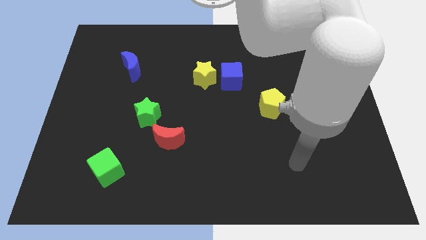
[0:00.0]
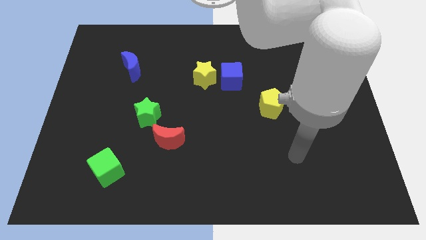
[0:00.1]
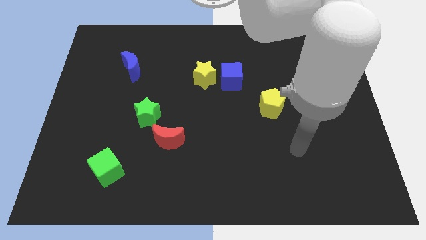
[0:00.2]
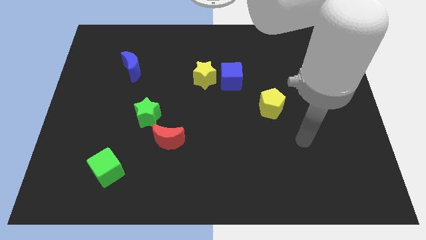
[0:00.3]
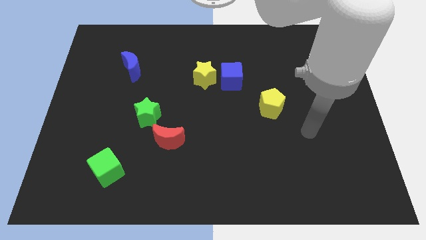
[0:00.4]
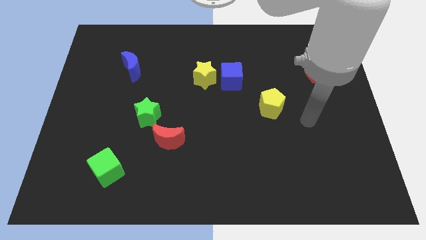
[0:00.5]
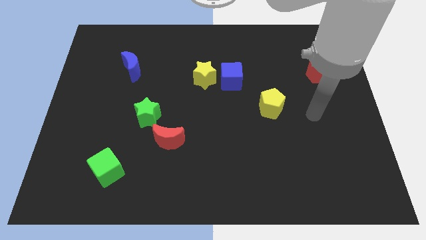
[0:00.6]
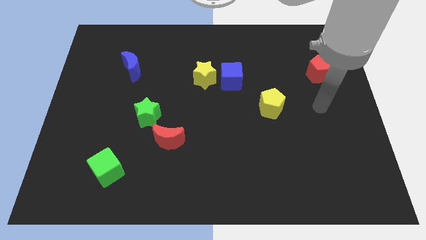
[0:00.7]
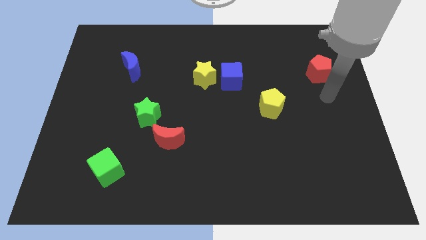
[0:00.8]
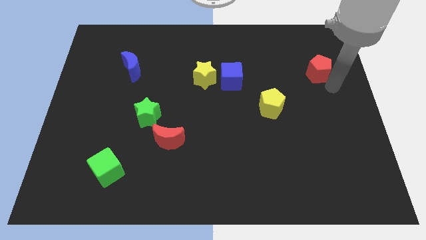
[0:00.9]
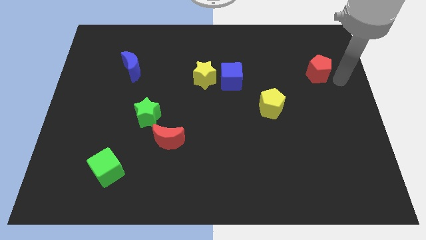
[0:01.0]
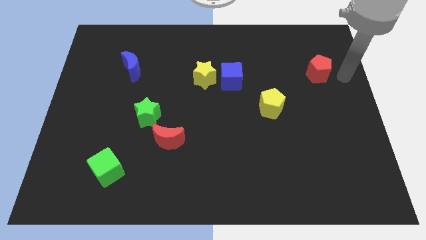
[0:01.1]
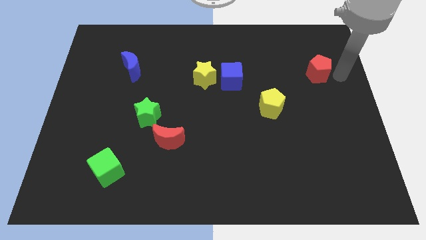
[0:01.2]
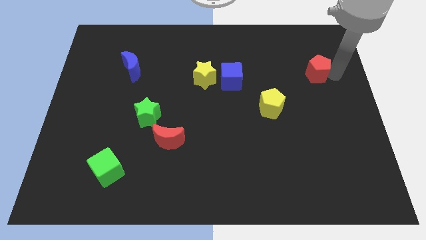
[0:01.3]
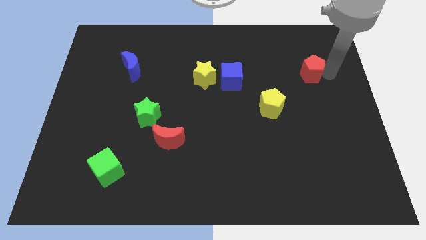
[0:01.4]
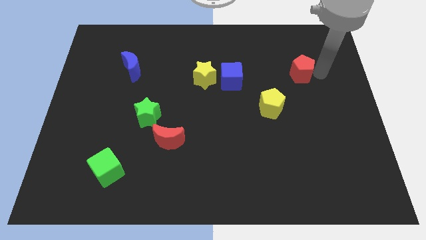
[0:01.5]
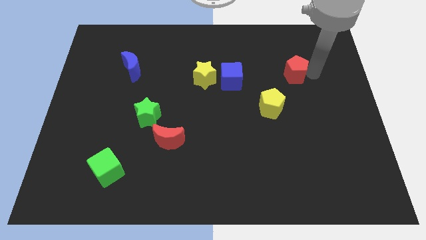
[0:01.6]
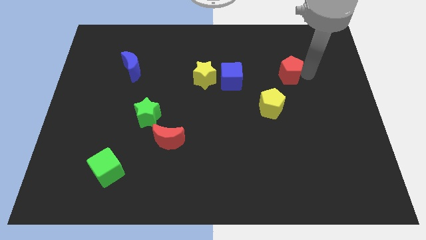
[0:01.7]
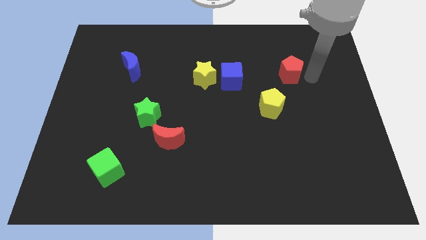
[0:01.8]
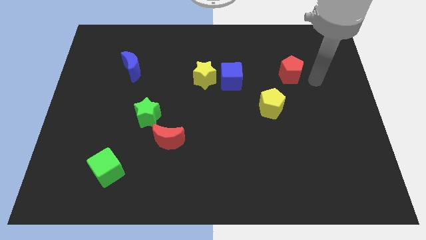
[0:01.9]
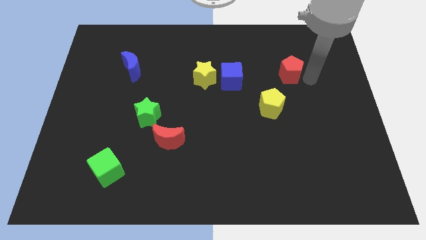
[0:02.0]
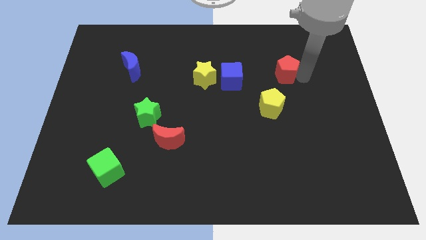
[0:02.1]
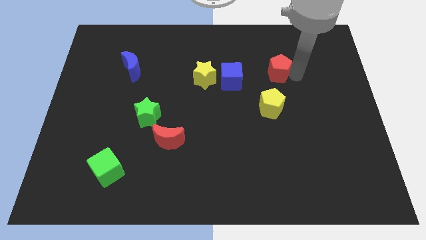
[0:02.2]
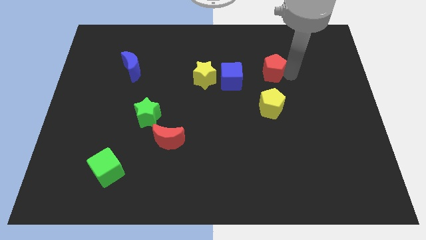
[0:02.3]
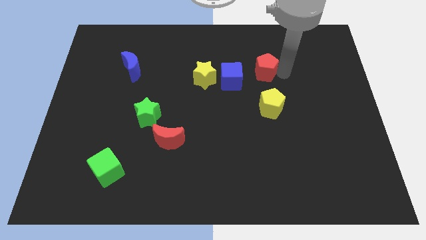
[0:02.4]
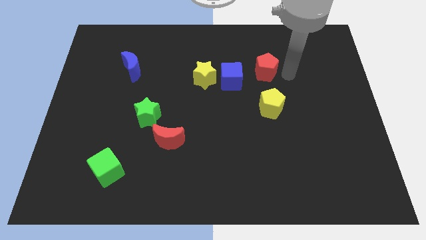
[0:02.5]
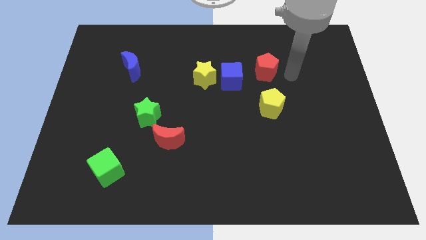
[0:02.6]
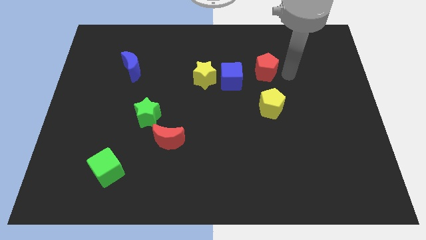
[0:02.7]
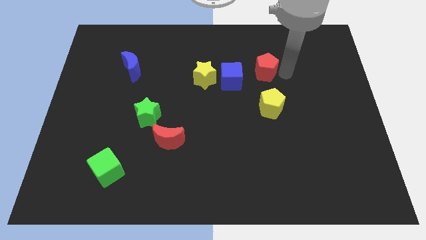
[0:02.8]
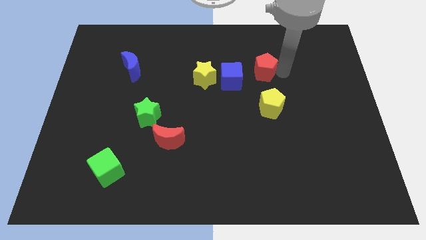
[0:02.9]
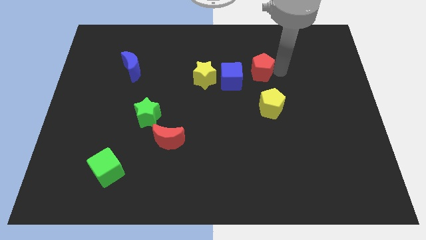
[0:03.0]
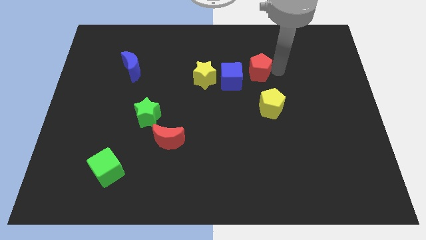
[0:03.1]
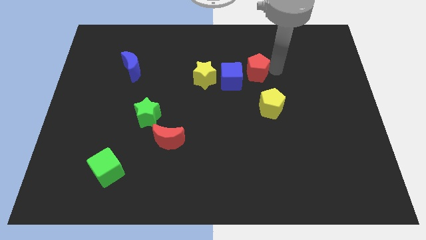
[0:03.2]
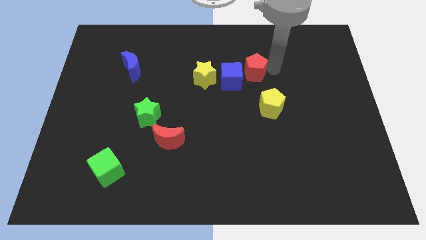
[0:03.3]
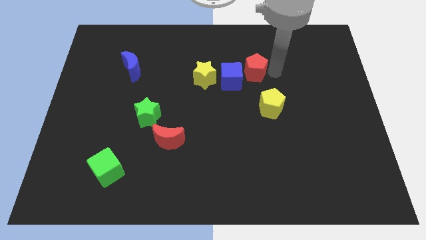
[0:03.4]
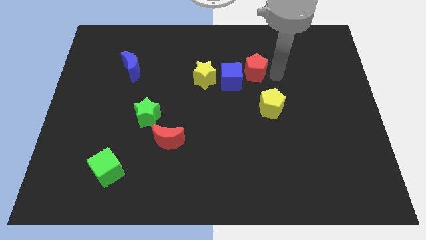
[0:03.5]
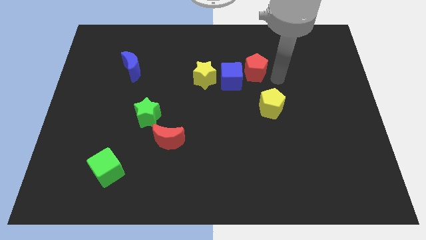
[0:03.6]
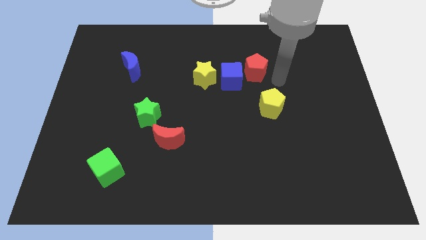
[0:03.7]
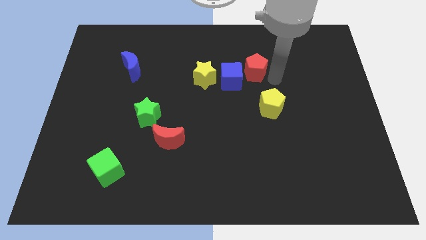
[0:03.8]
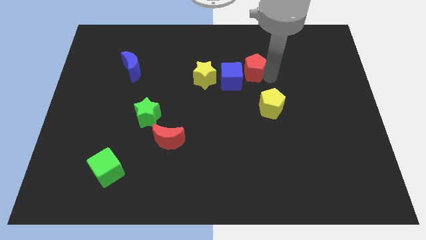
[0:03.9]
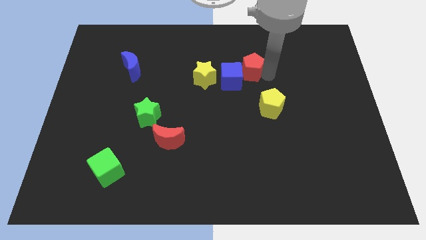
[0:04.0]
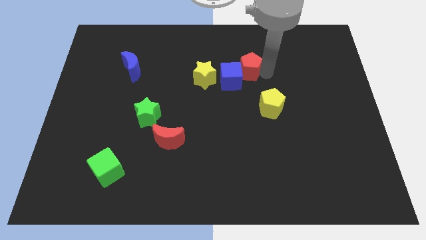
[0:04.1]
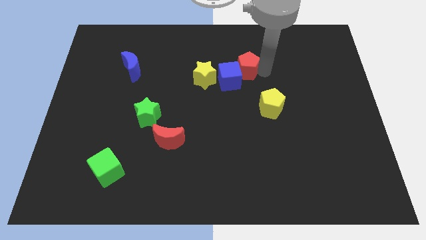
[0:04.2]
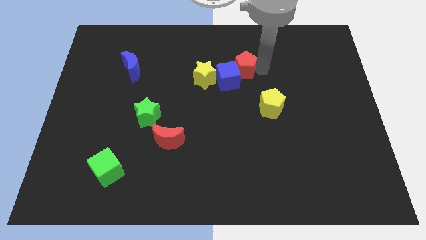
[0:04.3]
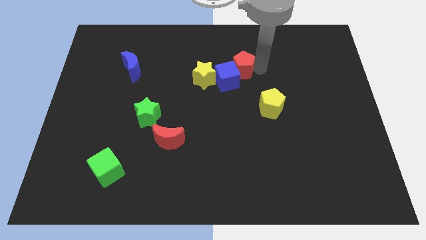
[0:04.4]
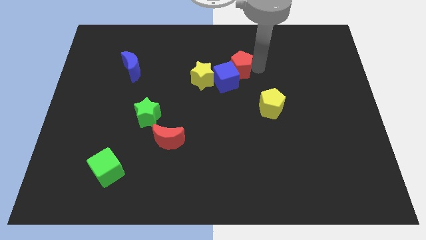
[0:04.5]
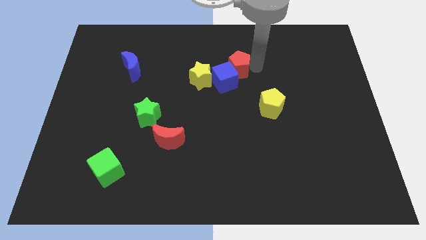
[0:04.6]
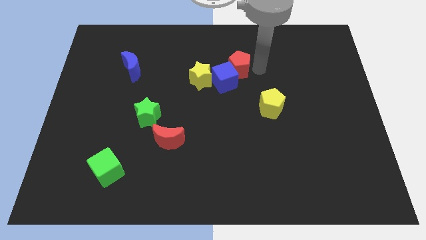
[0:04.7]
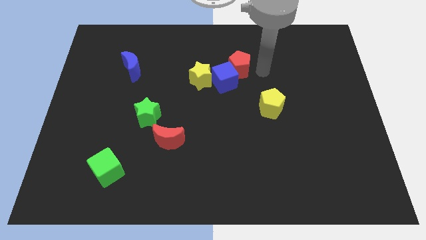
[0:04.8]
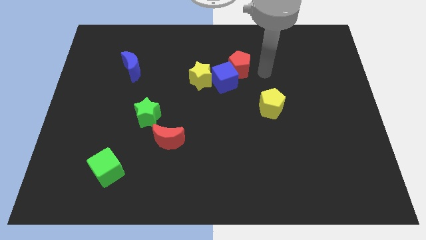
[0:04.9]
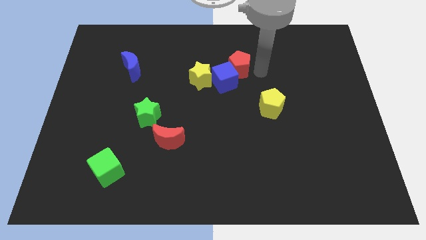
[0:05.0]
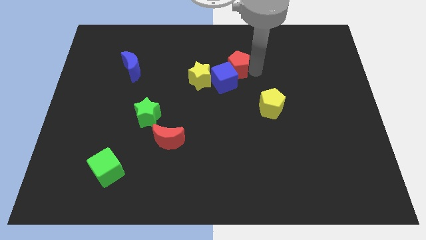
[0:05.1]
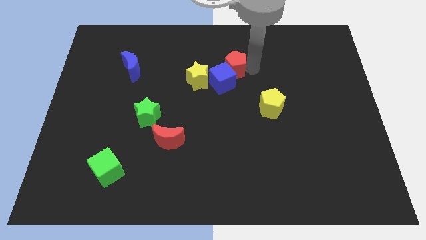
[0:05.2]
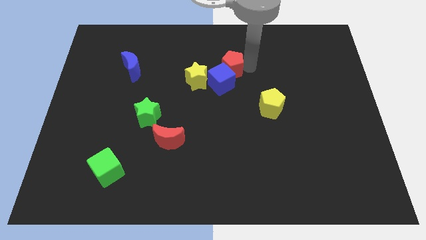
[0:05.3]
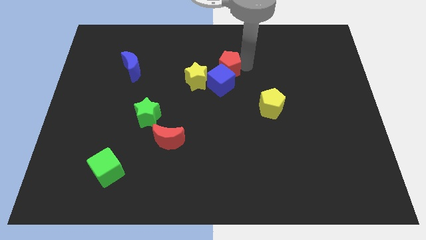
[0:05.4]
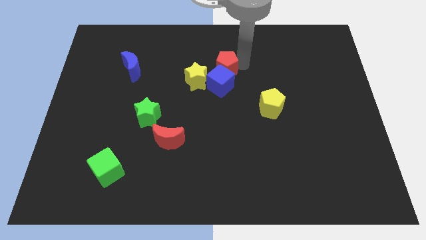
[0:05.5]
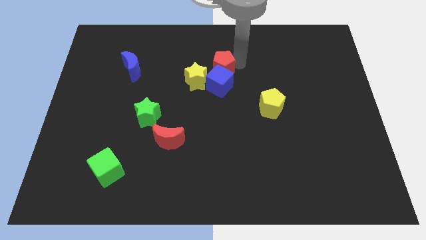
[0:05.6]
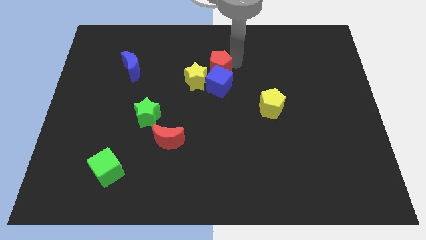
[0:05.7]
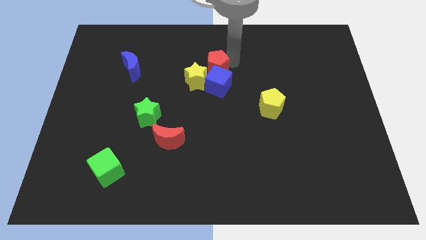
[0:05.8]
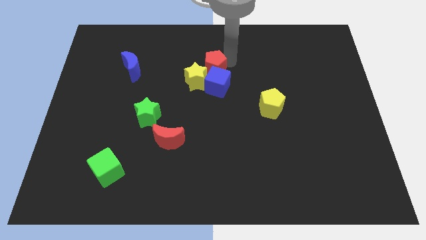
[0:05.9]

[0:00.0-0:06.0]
push the red pentagon next to the yellow star
